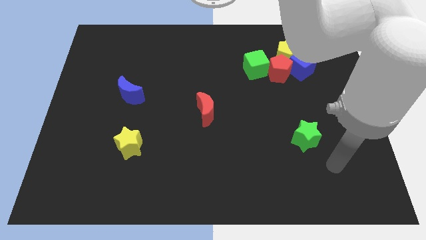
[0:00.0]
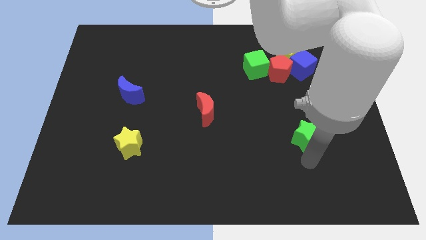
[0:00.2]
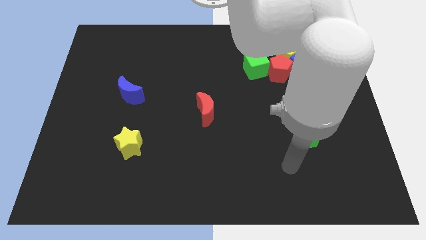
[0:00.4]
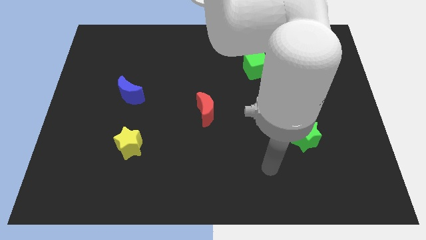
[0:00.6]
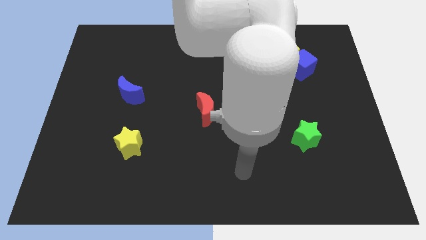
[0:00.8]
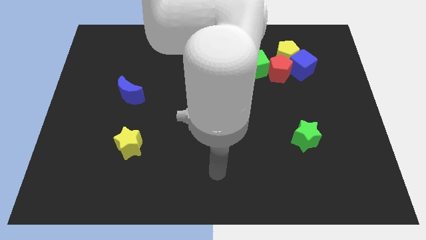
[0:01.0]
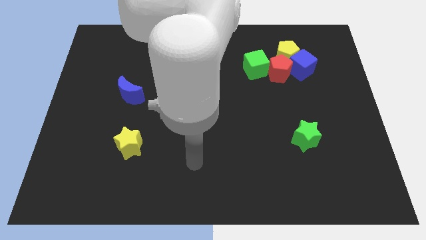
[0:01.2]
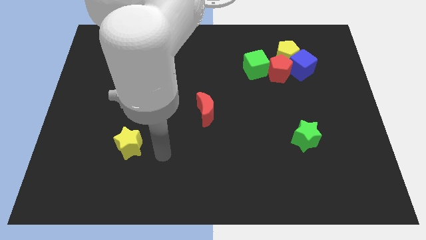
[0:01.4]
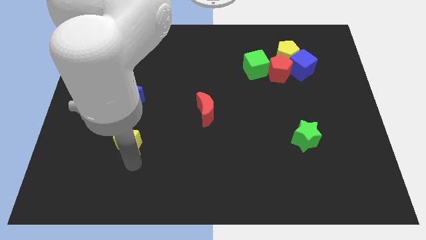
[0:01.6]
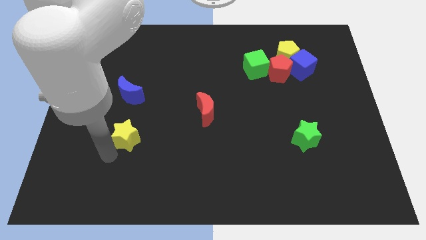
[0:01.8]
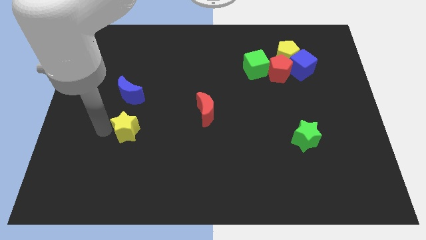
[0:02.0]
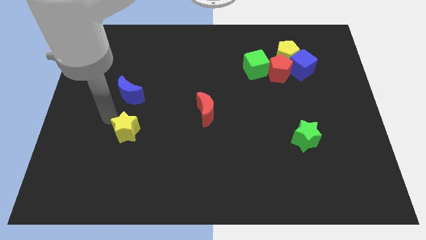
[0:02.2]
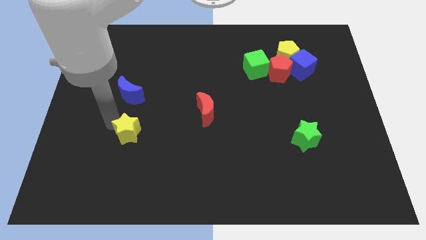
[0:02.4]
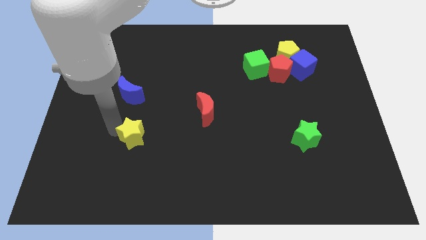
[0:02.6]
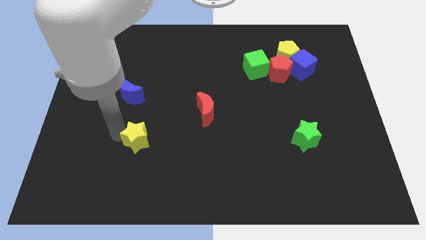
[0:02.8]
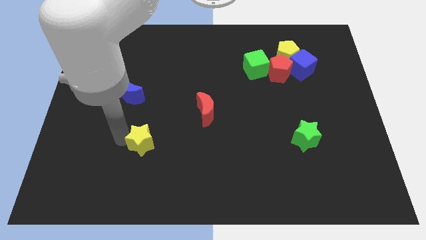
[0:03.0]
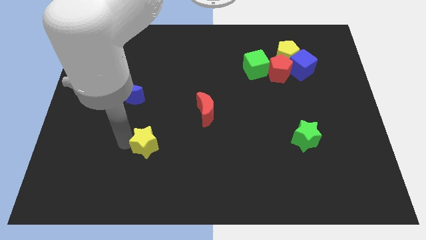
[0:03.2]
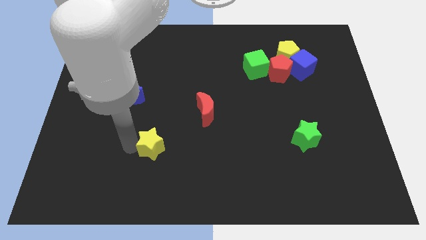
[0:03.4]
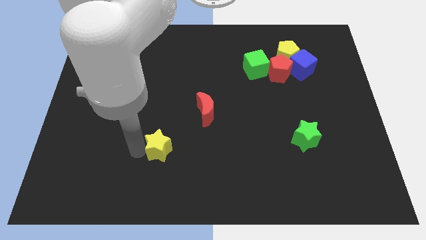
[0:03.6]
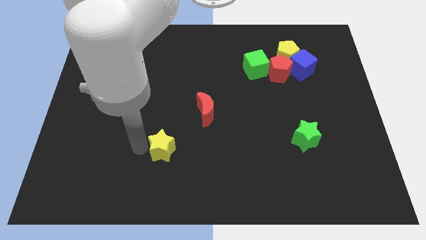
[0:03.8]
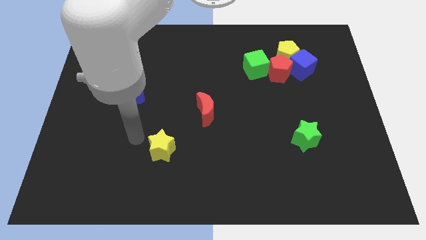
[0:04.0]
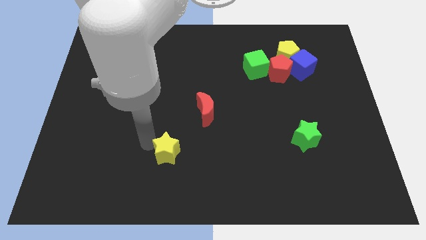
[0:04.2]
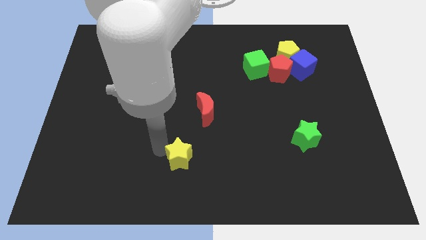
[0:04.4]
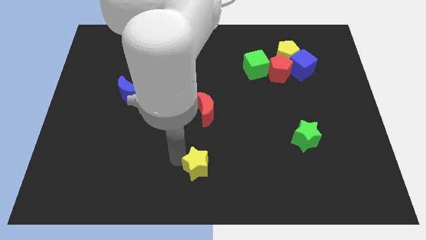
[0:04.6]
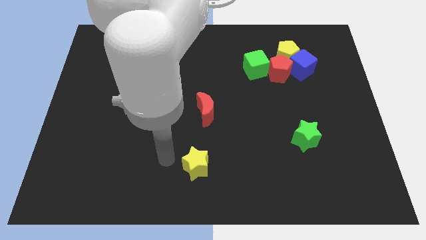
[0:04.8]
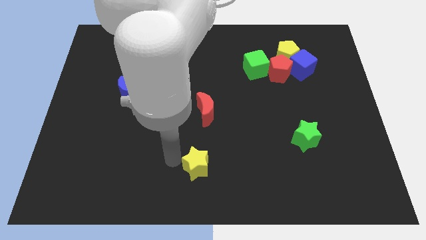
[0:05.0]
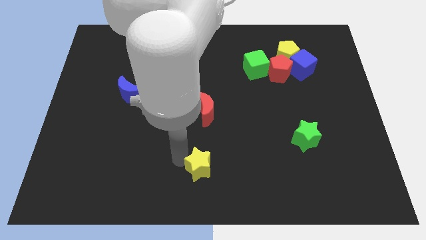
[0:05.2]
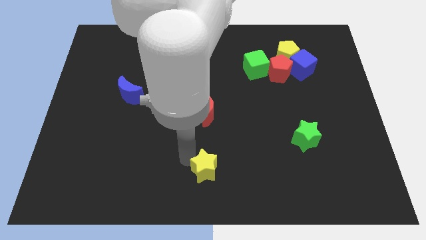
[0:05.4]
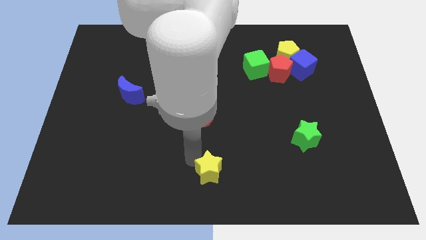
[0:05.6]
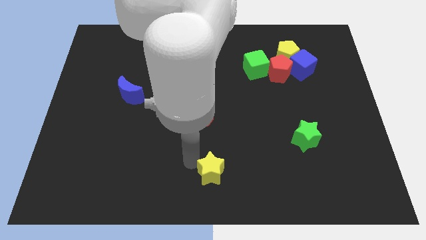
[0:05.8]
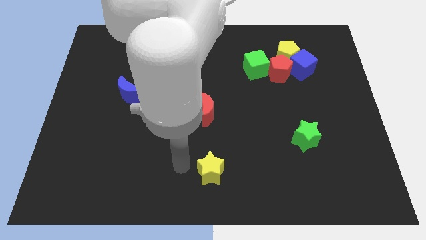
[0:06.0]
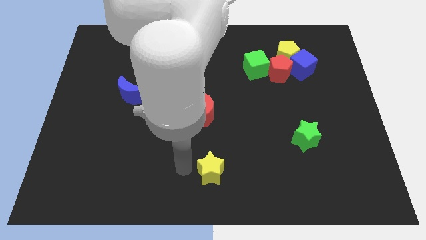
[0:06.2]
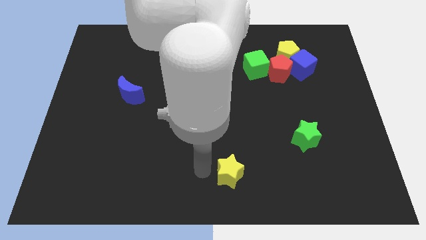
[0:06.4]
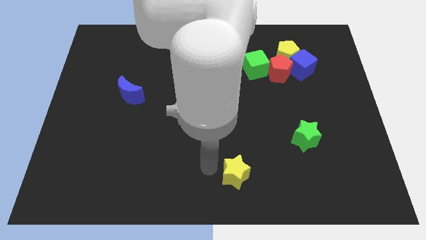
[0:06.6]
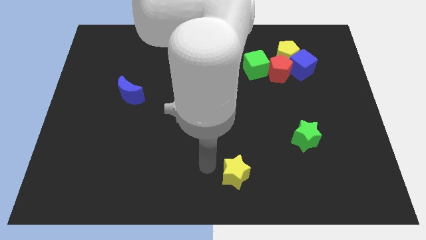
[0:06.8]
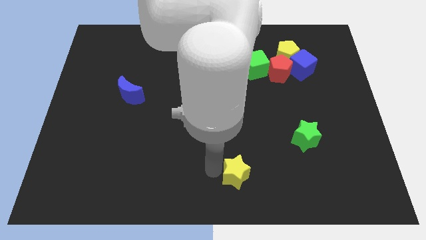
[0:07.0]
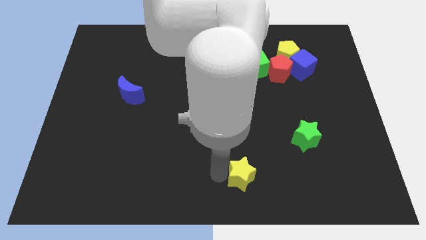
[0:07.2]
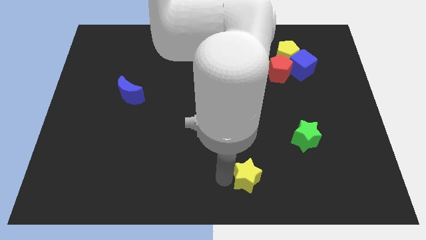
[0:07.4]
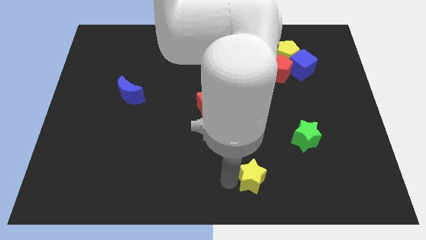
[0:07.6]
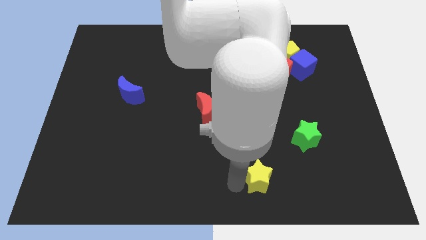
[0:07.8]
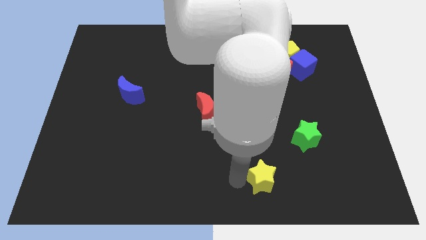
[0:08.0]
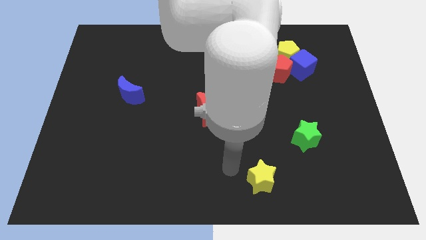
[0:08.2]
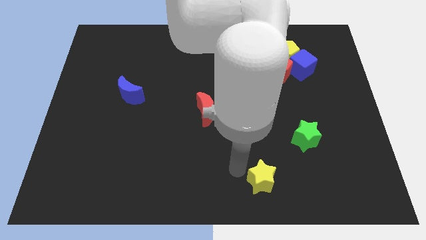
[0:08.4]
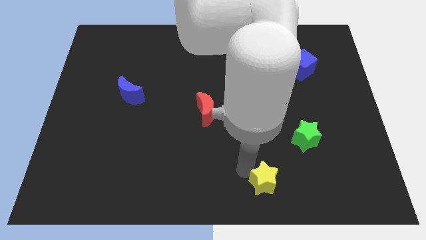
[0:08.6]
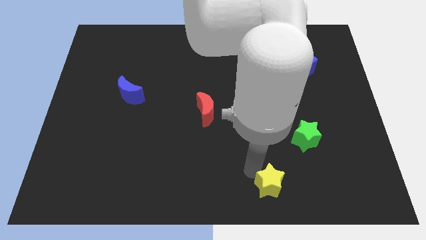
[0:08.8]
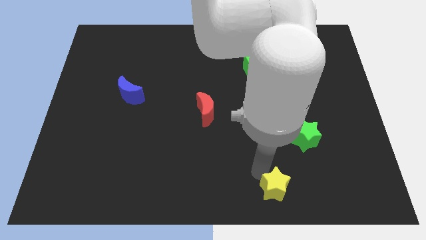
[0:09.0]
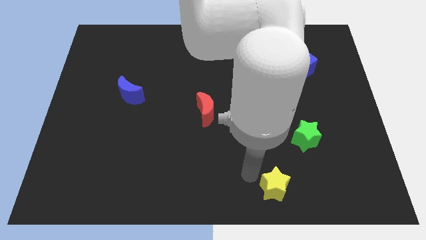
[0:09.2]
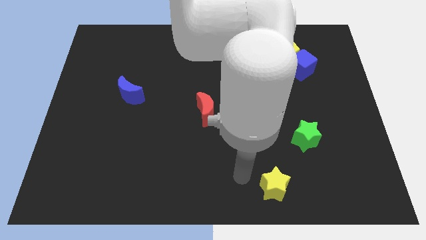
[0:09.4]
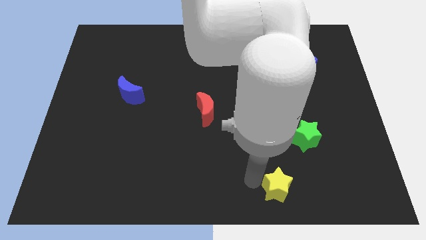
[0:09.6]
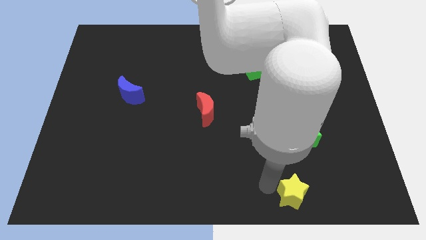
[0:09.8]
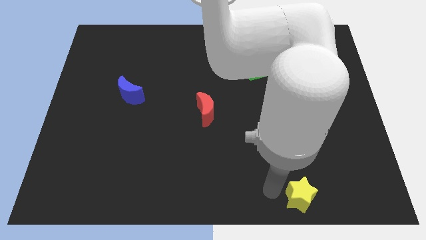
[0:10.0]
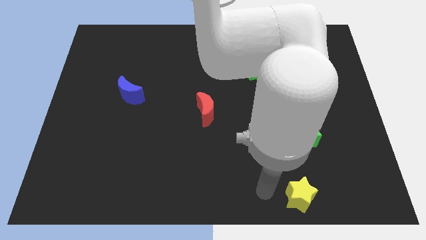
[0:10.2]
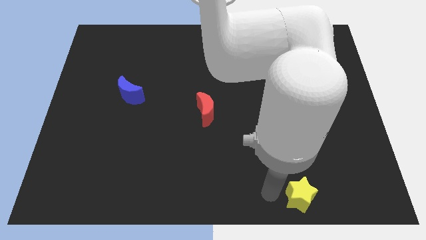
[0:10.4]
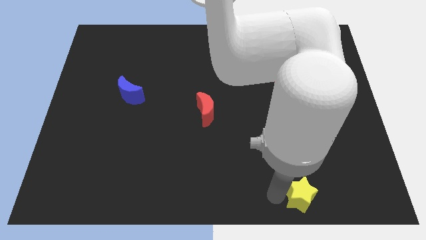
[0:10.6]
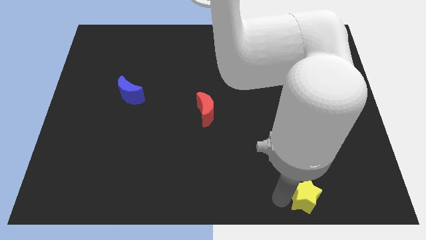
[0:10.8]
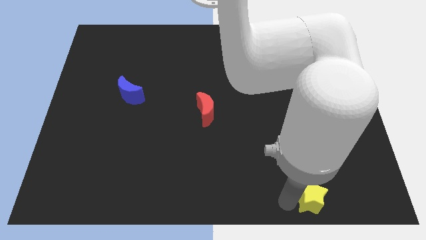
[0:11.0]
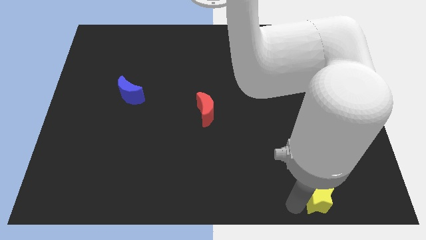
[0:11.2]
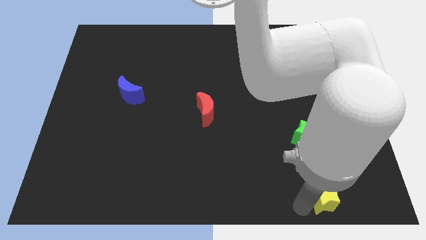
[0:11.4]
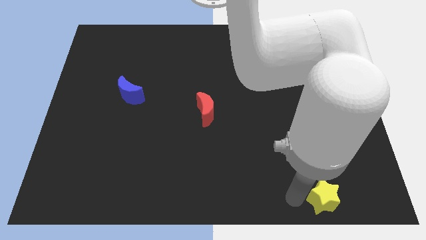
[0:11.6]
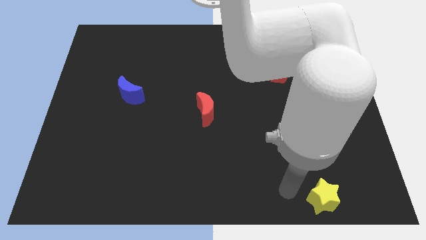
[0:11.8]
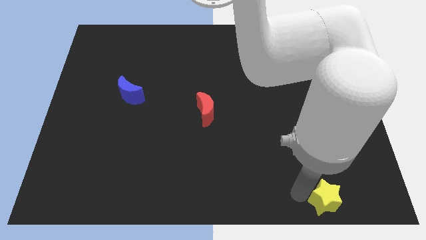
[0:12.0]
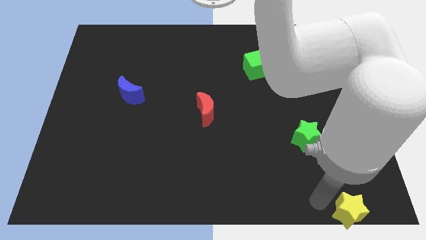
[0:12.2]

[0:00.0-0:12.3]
put the yellow star to the bottom right corner
